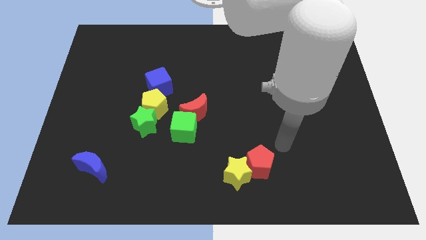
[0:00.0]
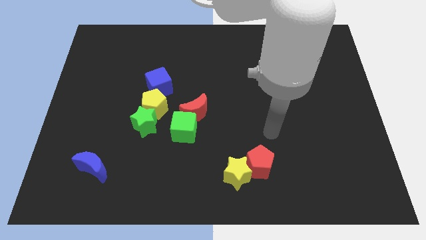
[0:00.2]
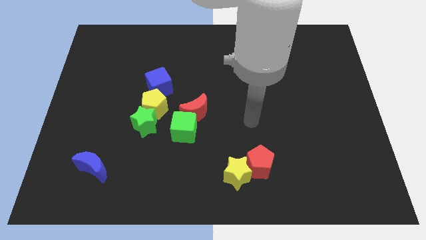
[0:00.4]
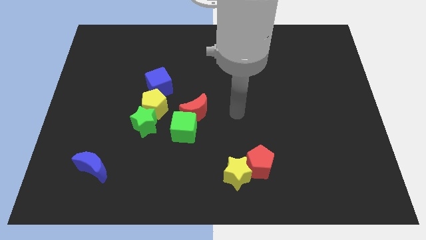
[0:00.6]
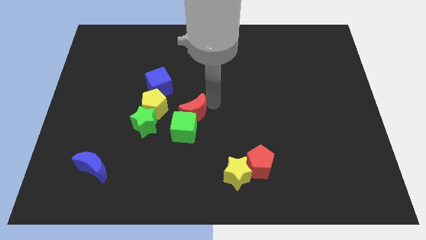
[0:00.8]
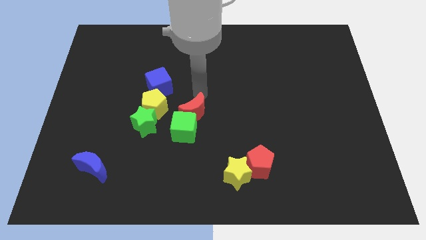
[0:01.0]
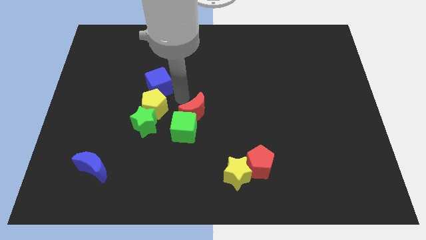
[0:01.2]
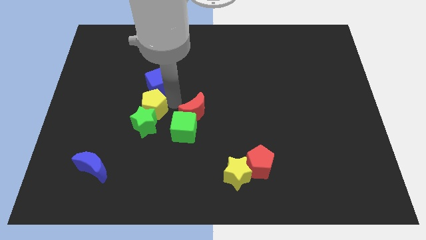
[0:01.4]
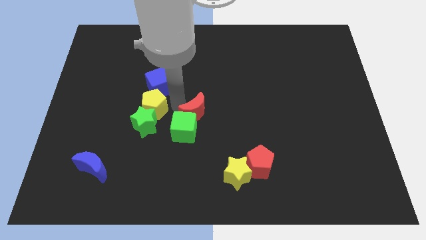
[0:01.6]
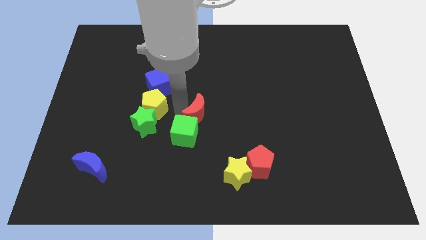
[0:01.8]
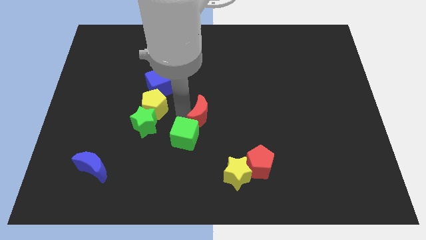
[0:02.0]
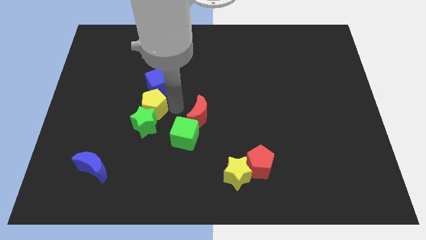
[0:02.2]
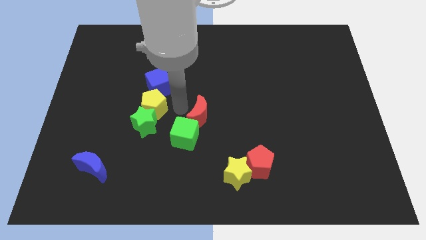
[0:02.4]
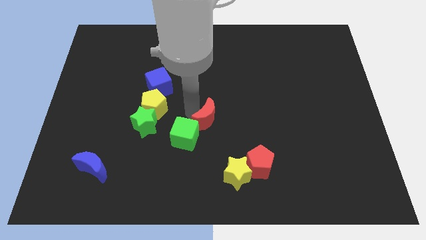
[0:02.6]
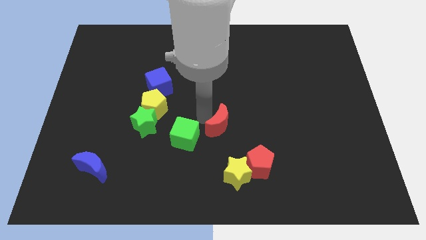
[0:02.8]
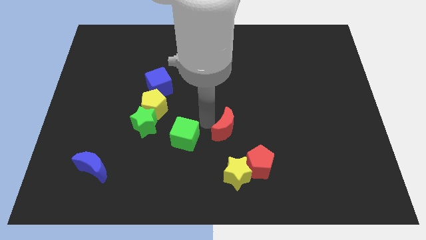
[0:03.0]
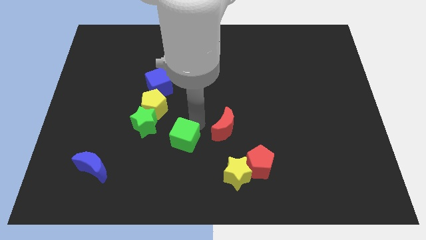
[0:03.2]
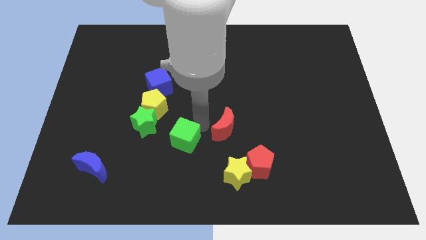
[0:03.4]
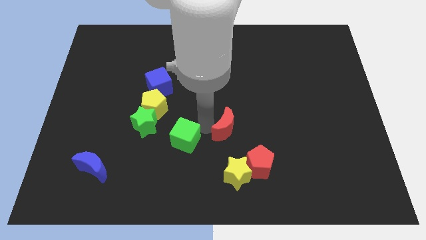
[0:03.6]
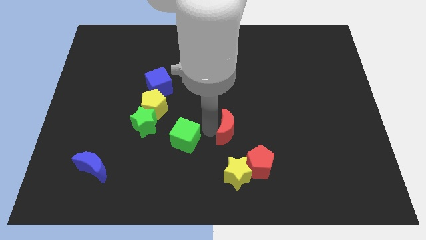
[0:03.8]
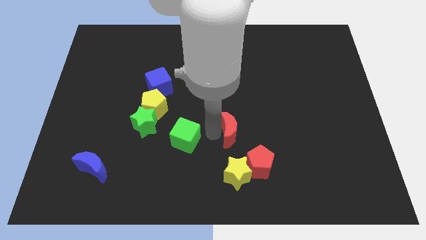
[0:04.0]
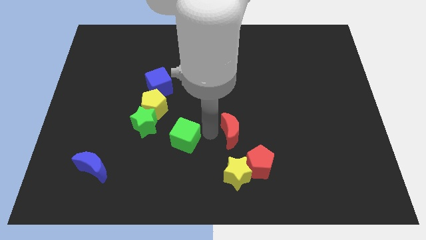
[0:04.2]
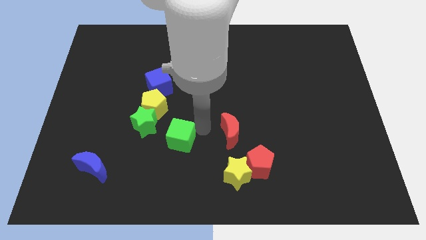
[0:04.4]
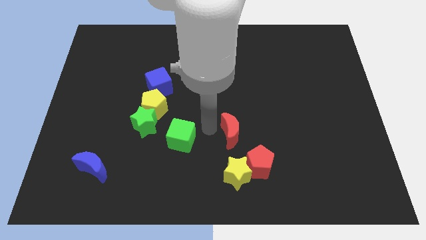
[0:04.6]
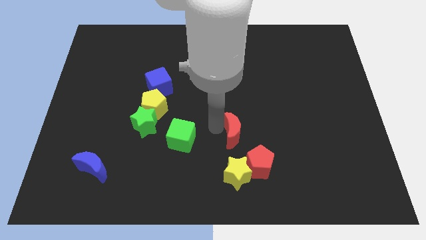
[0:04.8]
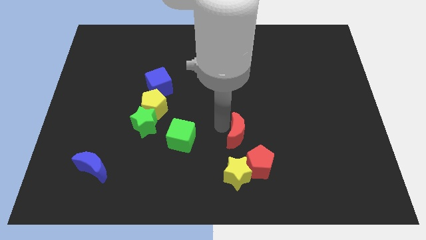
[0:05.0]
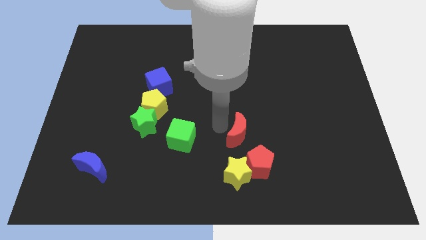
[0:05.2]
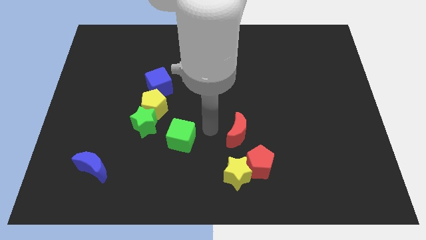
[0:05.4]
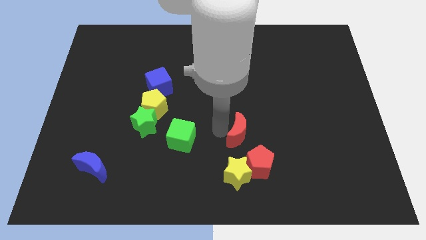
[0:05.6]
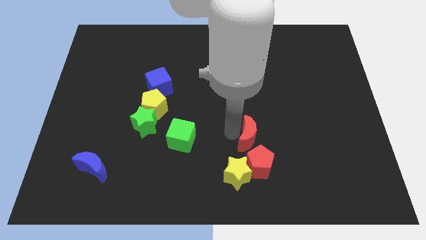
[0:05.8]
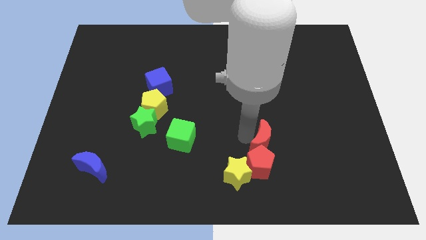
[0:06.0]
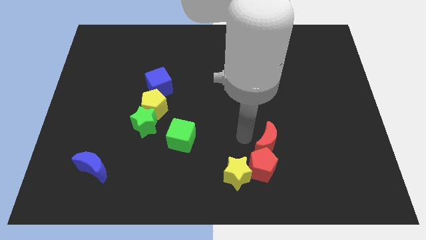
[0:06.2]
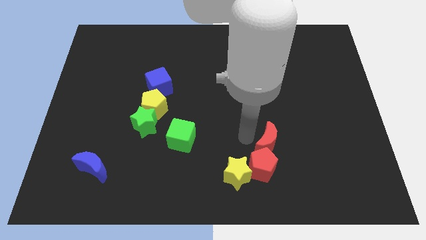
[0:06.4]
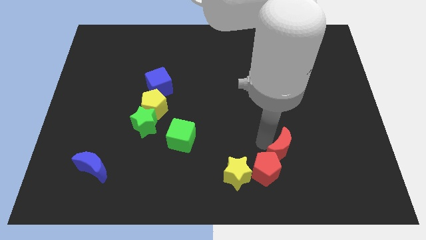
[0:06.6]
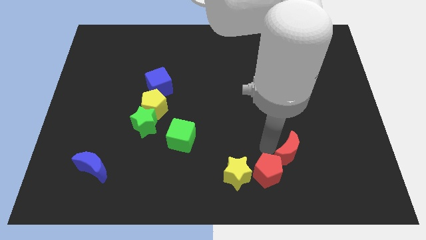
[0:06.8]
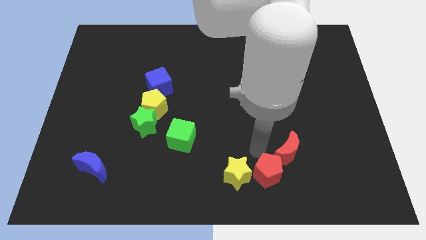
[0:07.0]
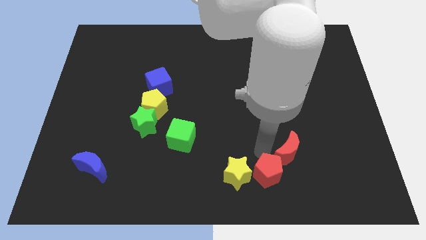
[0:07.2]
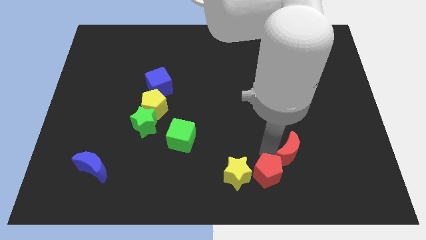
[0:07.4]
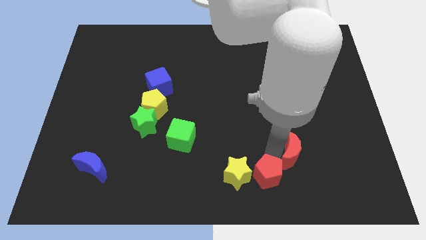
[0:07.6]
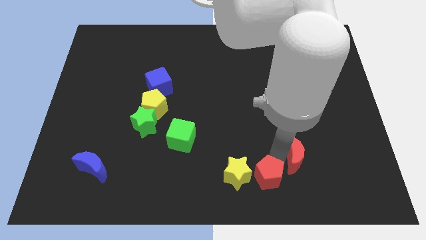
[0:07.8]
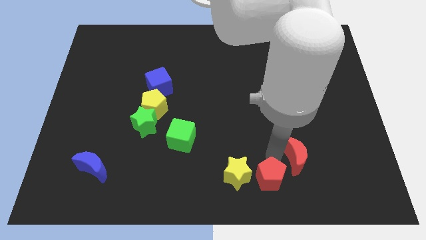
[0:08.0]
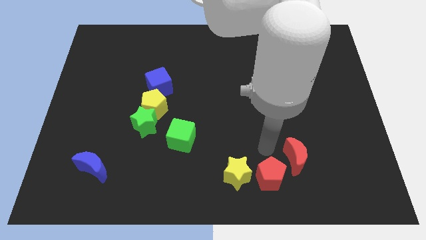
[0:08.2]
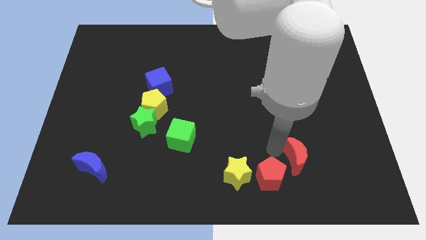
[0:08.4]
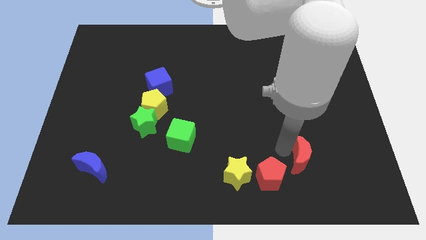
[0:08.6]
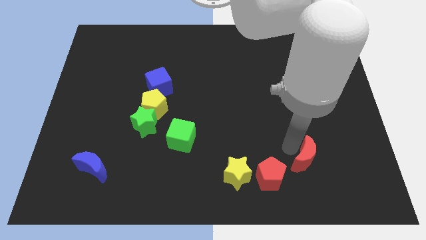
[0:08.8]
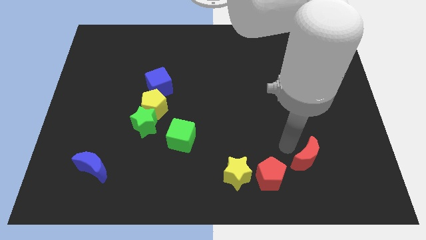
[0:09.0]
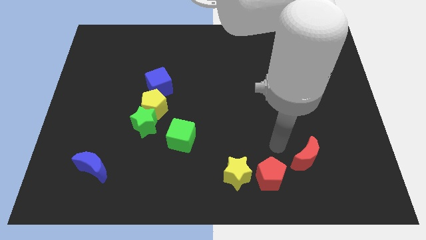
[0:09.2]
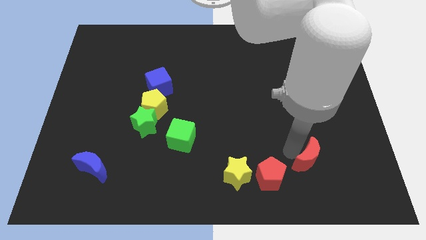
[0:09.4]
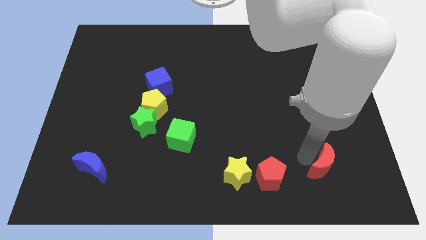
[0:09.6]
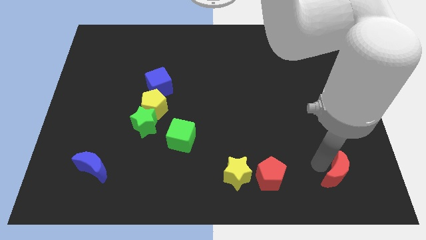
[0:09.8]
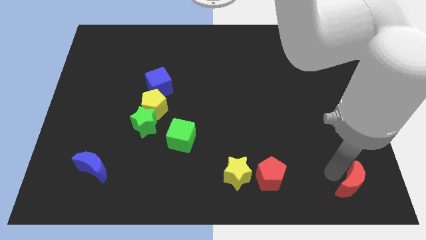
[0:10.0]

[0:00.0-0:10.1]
push the red moon to the lower right corner

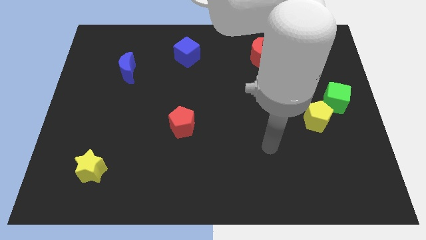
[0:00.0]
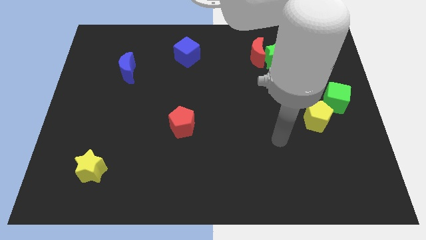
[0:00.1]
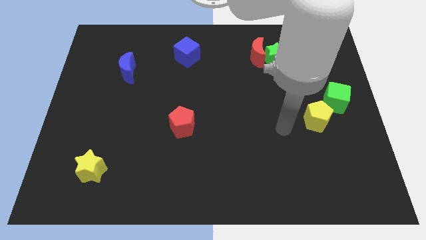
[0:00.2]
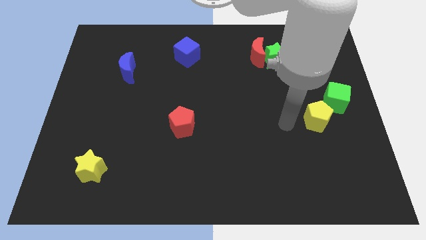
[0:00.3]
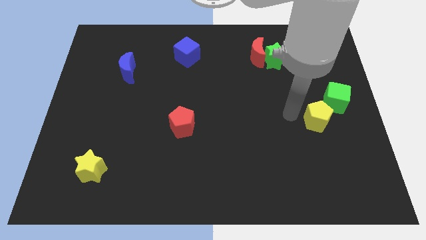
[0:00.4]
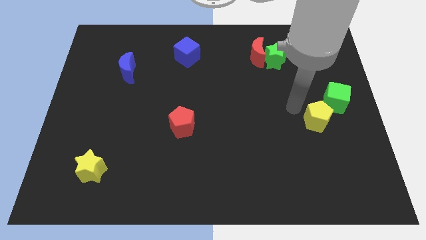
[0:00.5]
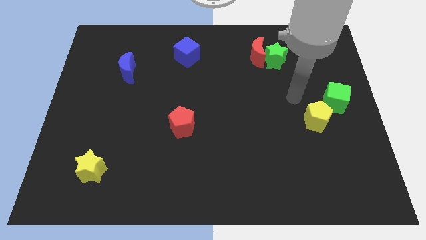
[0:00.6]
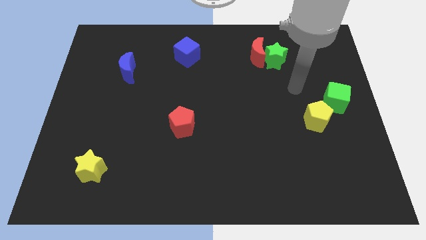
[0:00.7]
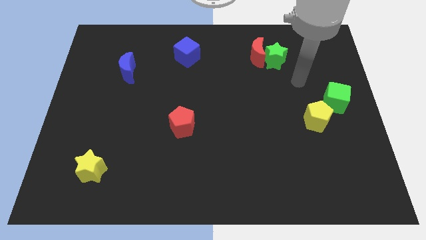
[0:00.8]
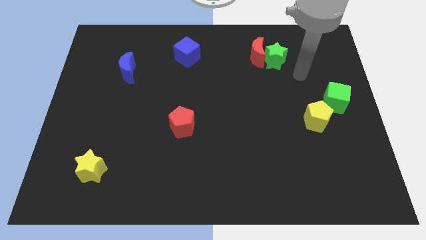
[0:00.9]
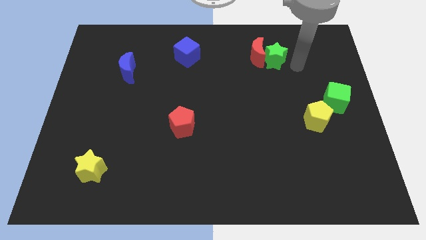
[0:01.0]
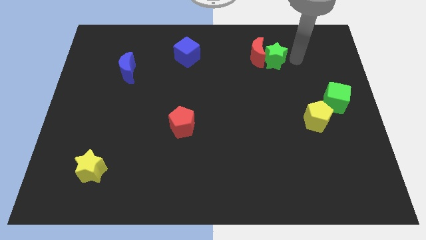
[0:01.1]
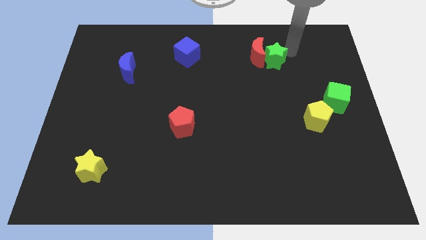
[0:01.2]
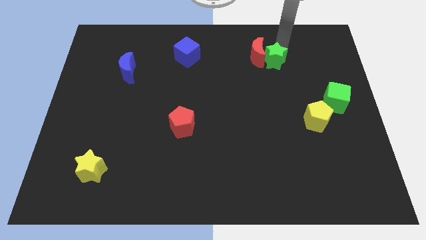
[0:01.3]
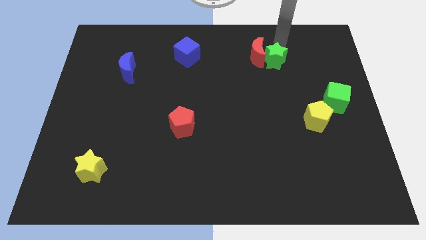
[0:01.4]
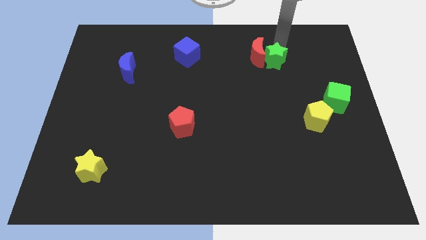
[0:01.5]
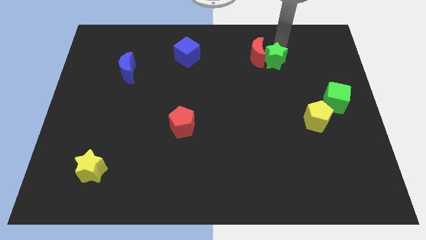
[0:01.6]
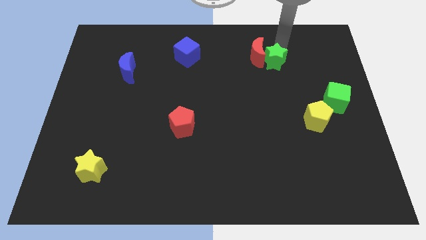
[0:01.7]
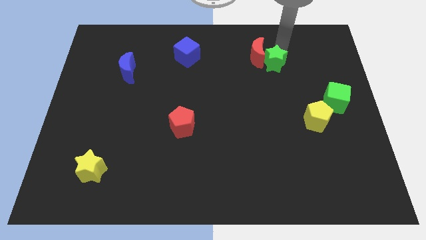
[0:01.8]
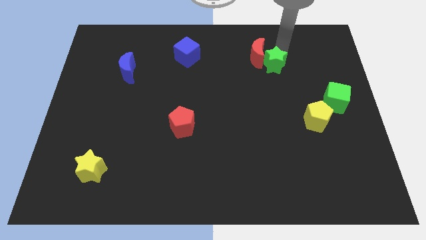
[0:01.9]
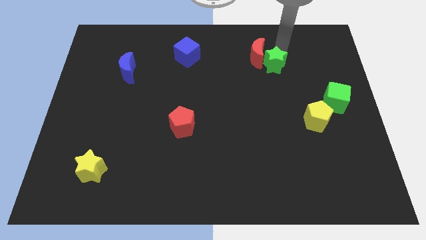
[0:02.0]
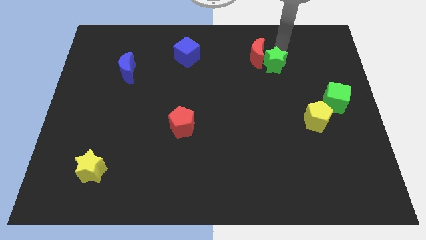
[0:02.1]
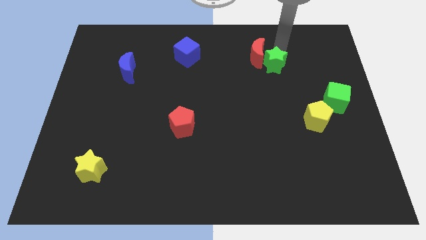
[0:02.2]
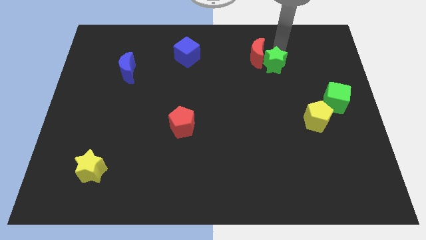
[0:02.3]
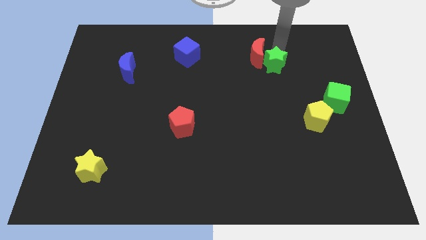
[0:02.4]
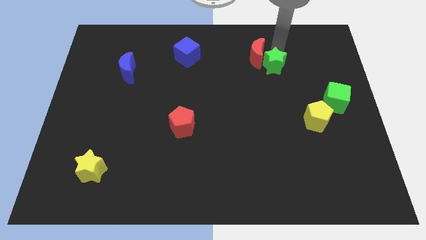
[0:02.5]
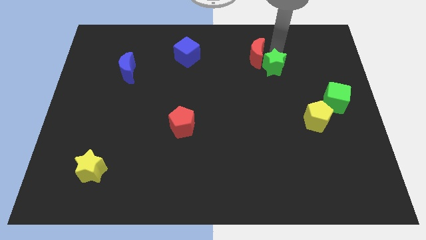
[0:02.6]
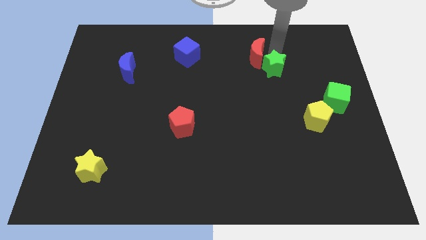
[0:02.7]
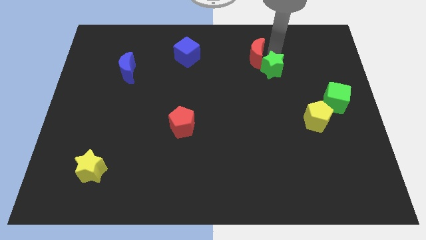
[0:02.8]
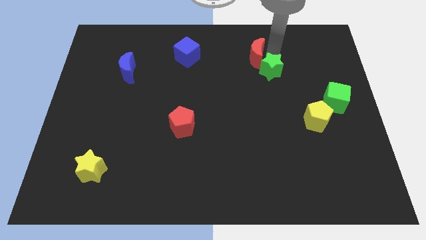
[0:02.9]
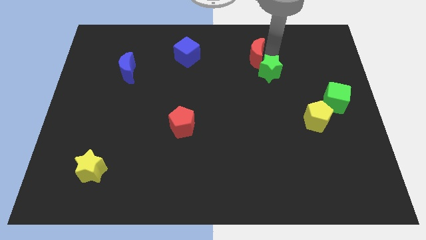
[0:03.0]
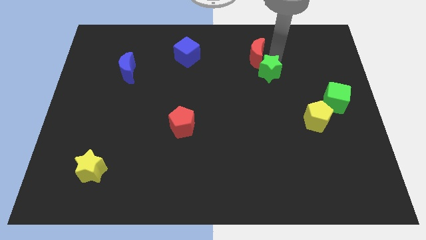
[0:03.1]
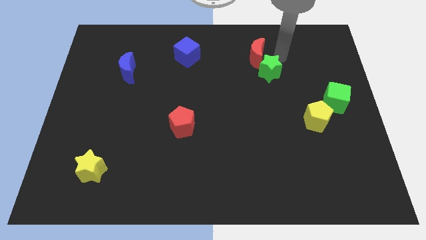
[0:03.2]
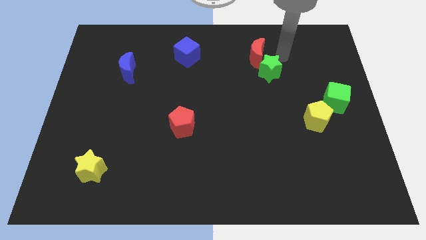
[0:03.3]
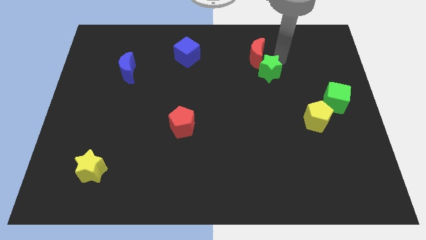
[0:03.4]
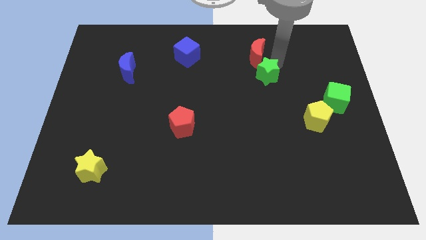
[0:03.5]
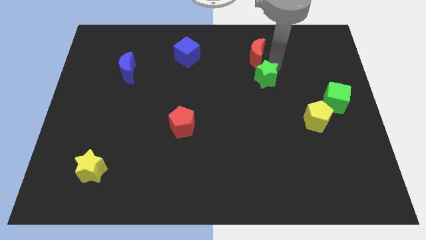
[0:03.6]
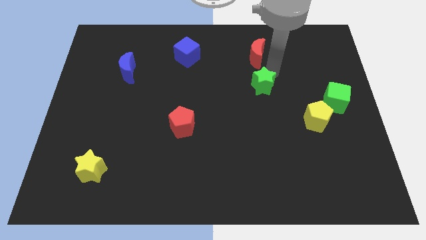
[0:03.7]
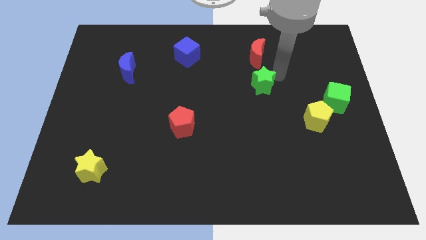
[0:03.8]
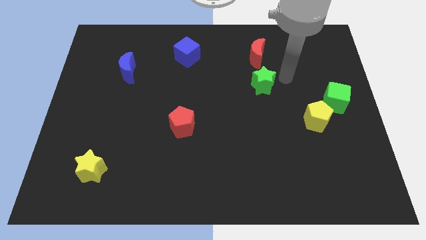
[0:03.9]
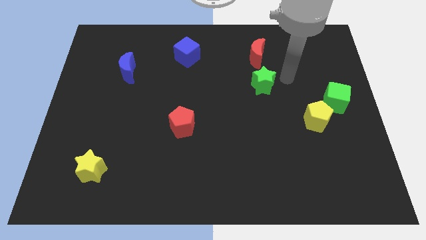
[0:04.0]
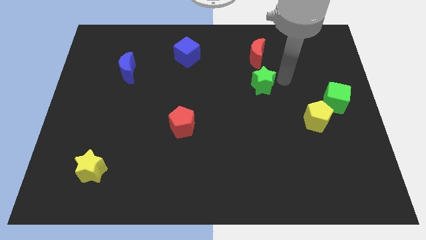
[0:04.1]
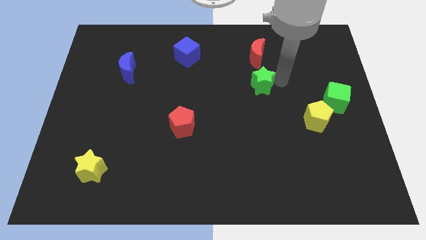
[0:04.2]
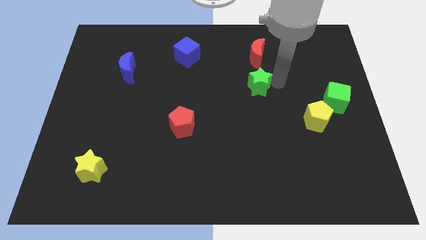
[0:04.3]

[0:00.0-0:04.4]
slide the green star to the middle of the board
